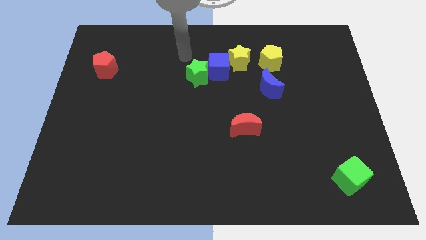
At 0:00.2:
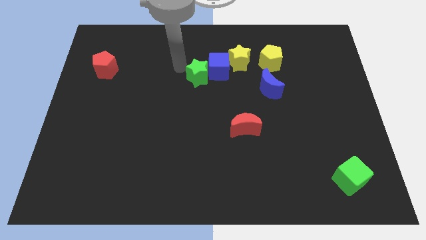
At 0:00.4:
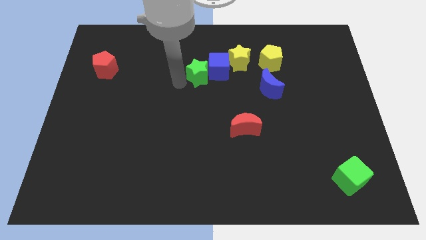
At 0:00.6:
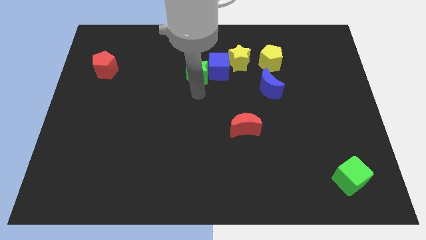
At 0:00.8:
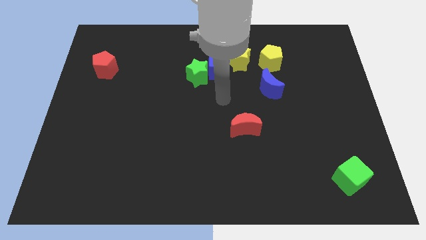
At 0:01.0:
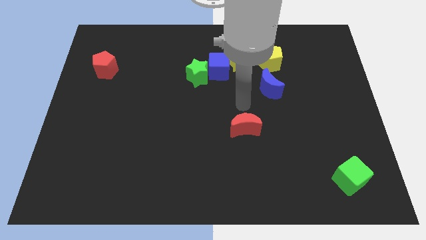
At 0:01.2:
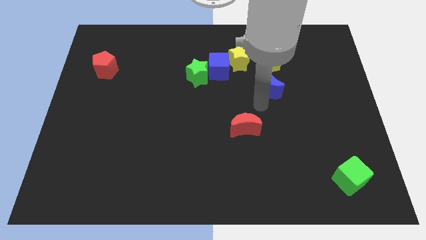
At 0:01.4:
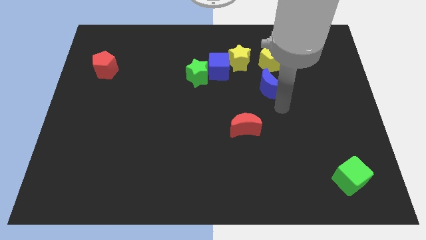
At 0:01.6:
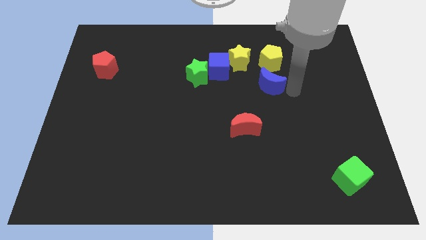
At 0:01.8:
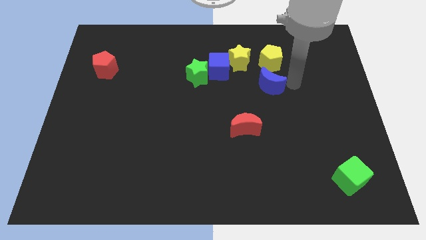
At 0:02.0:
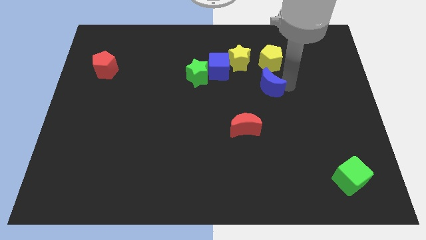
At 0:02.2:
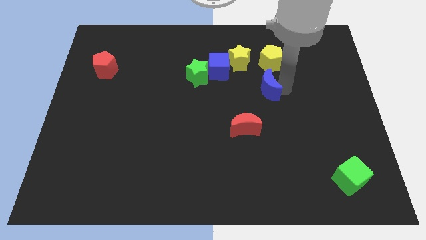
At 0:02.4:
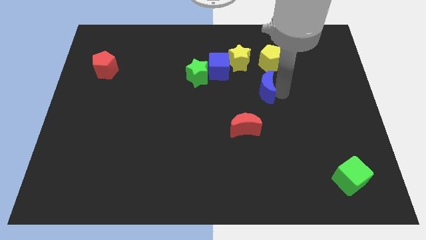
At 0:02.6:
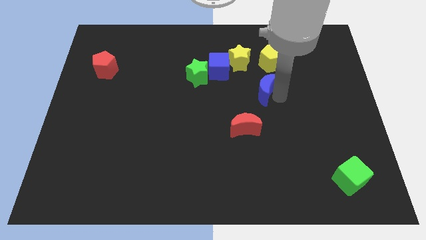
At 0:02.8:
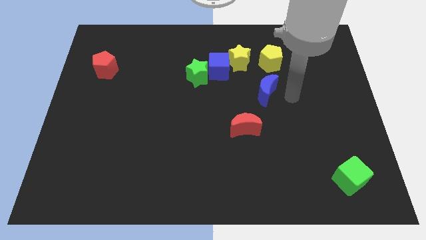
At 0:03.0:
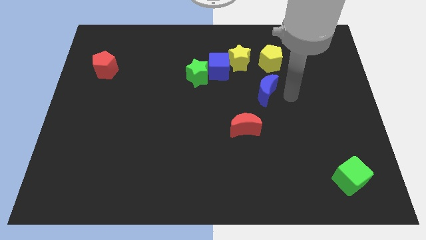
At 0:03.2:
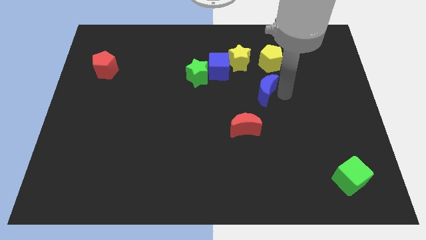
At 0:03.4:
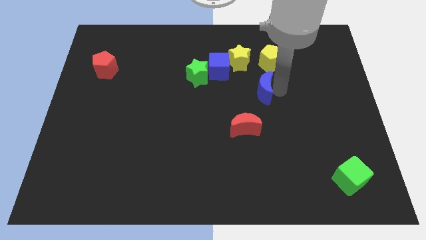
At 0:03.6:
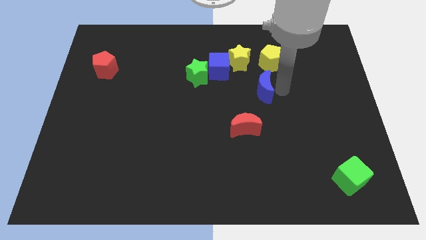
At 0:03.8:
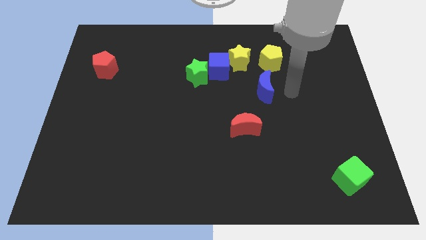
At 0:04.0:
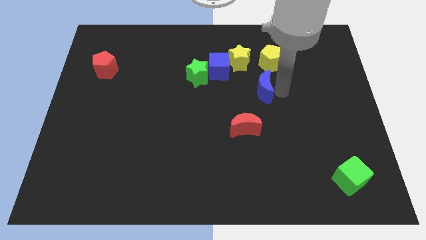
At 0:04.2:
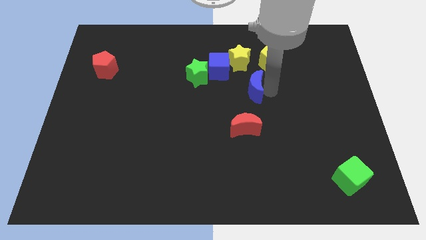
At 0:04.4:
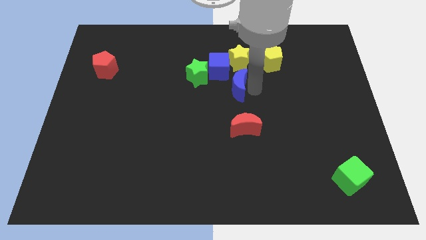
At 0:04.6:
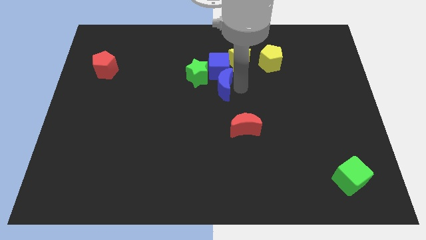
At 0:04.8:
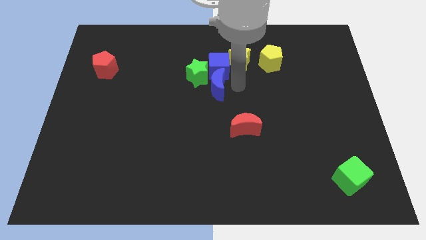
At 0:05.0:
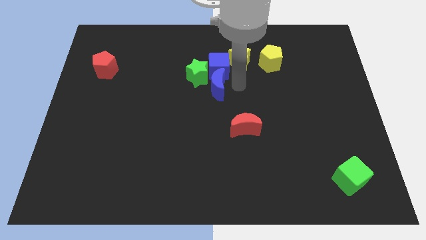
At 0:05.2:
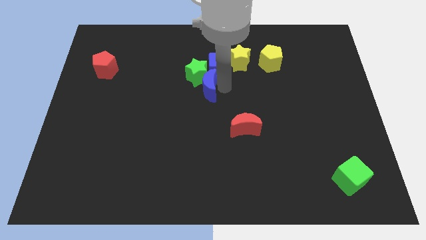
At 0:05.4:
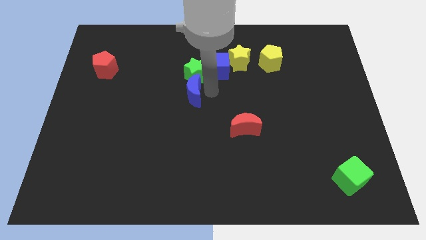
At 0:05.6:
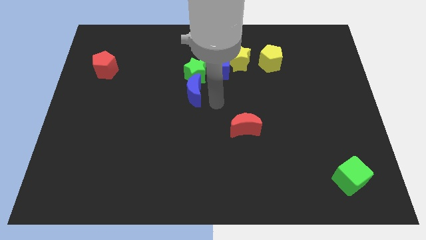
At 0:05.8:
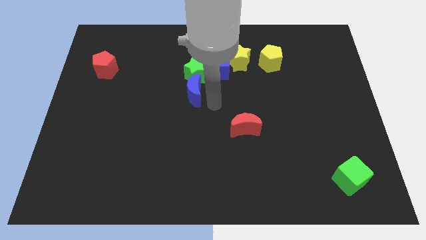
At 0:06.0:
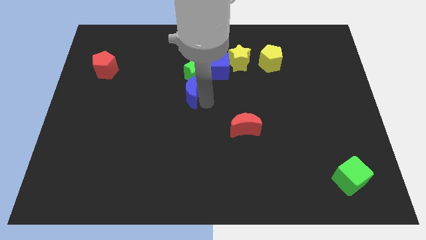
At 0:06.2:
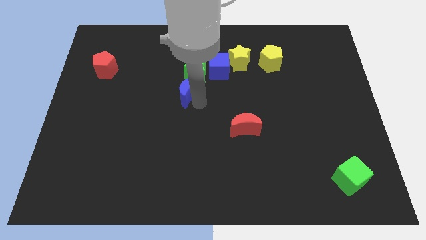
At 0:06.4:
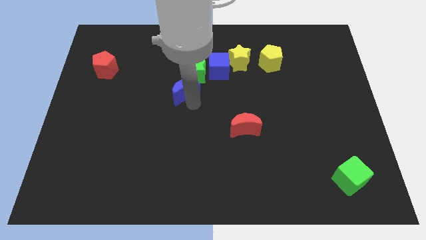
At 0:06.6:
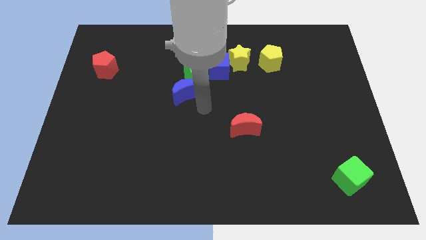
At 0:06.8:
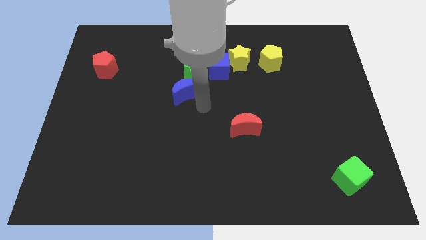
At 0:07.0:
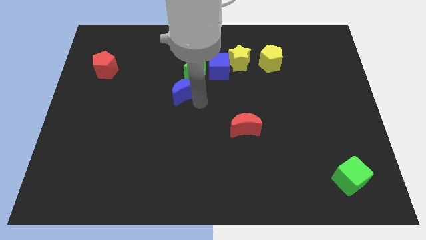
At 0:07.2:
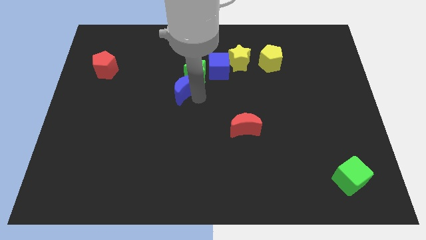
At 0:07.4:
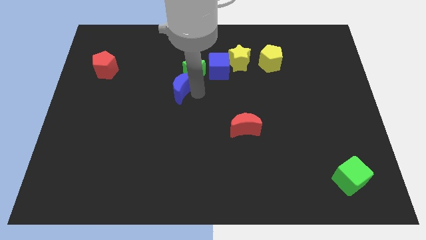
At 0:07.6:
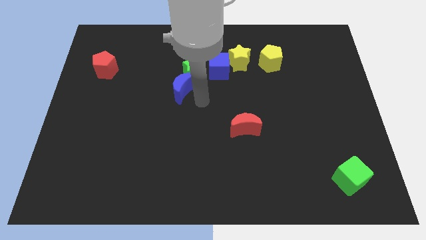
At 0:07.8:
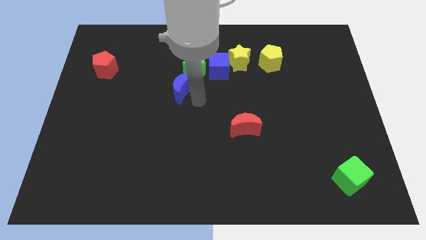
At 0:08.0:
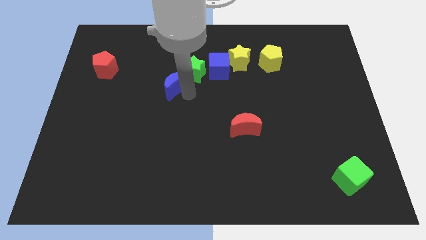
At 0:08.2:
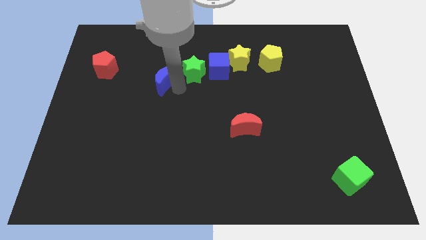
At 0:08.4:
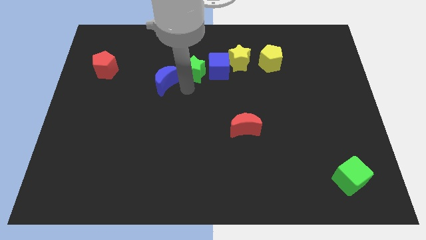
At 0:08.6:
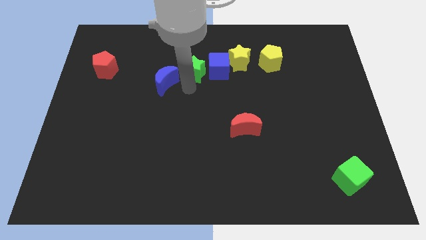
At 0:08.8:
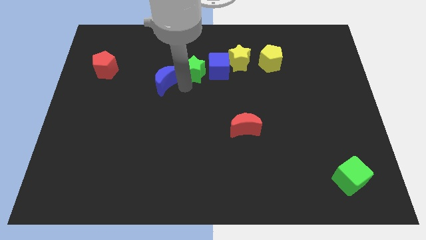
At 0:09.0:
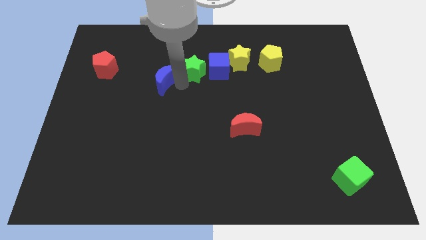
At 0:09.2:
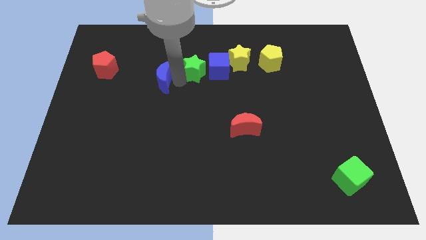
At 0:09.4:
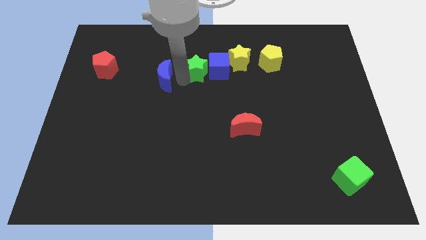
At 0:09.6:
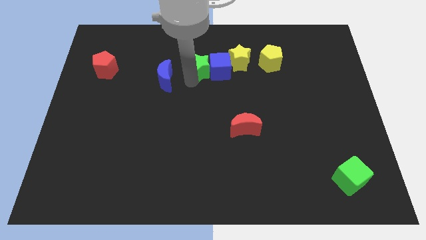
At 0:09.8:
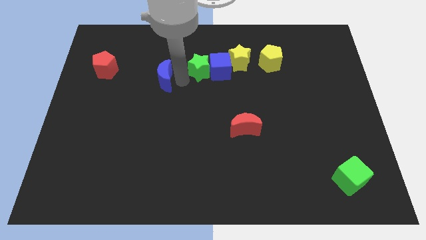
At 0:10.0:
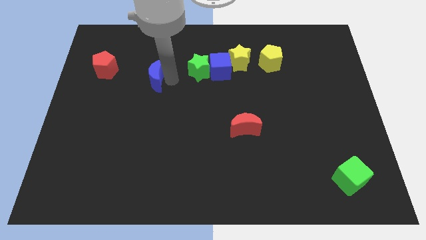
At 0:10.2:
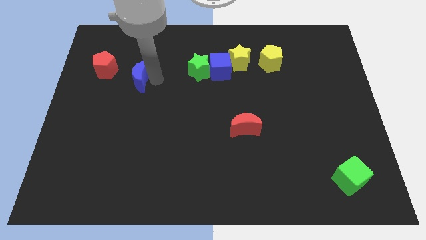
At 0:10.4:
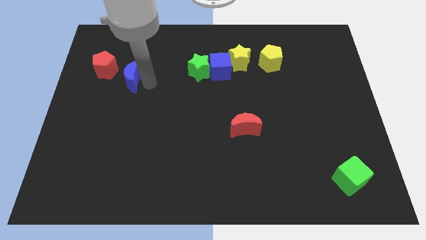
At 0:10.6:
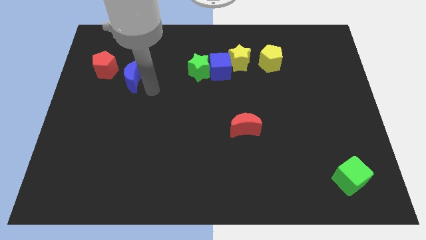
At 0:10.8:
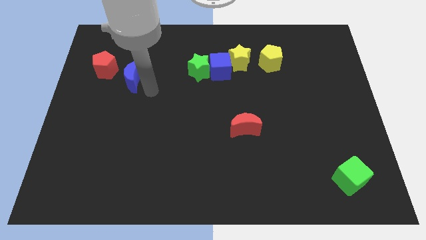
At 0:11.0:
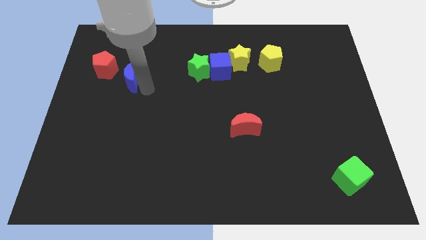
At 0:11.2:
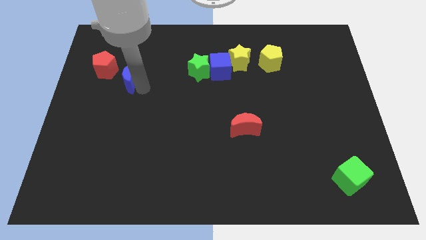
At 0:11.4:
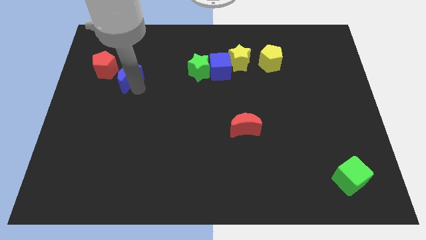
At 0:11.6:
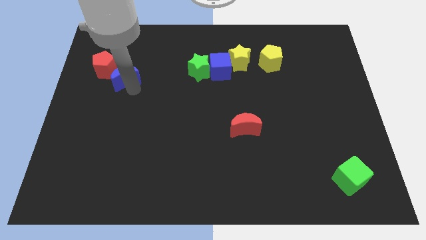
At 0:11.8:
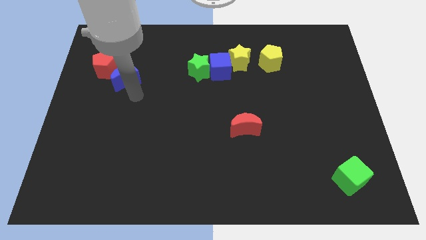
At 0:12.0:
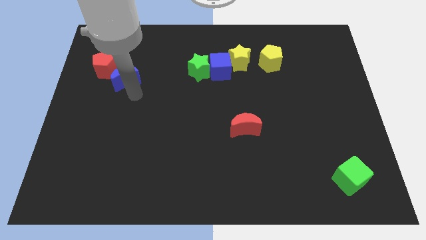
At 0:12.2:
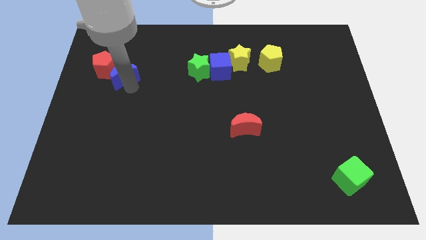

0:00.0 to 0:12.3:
move the blue moon next to the red pentagon
